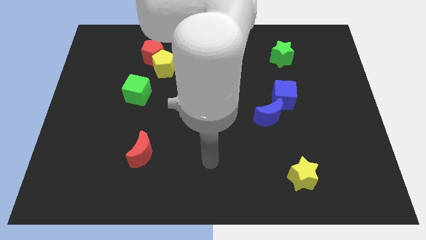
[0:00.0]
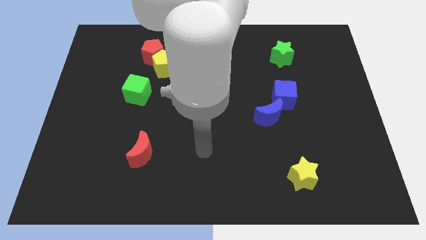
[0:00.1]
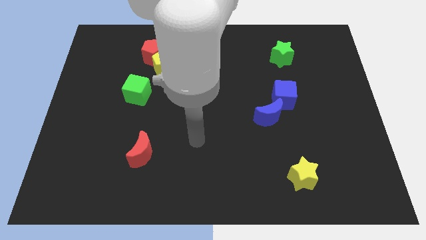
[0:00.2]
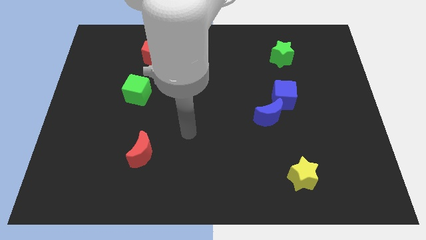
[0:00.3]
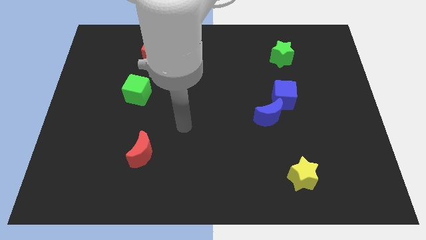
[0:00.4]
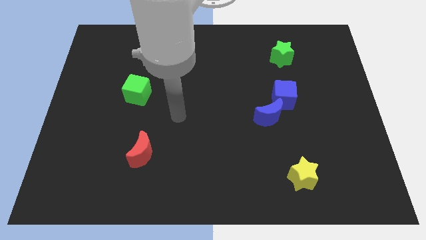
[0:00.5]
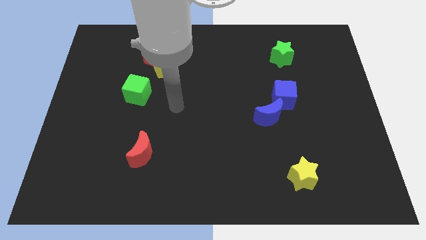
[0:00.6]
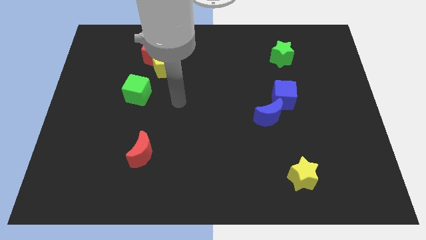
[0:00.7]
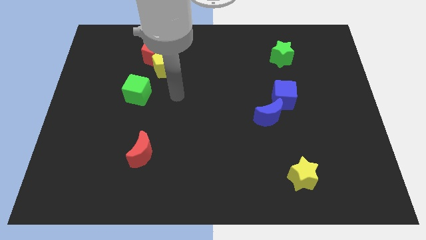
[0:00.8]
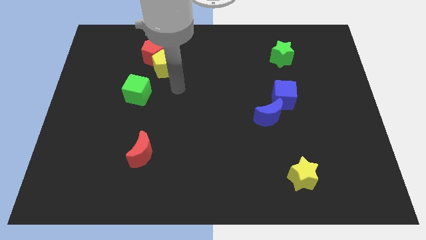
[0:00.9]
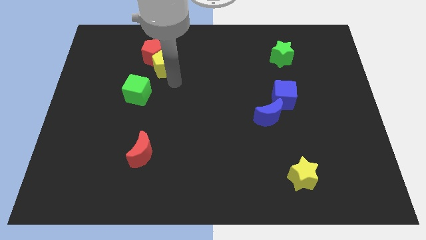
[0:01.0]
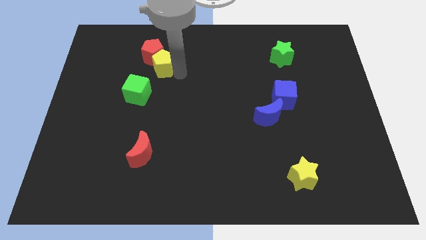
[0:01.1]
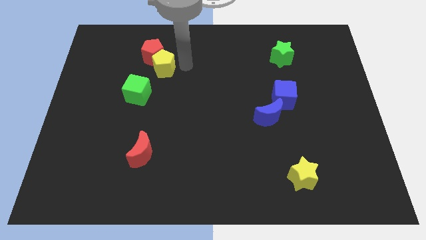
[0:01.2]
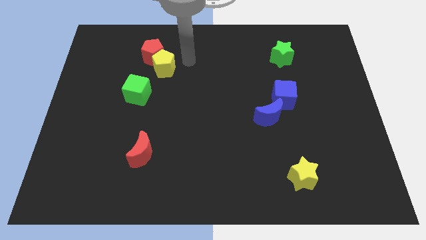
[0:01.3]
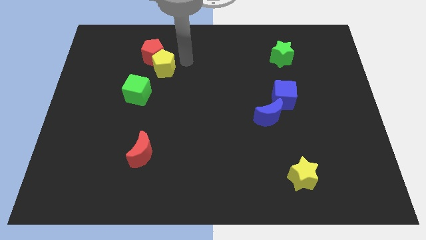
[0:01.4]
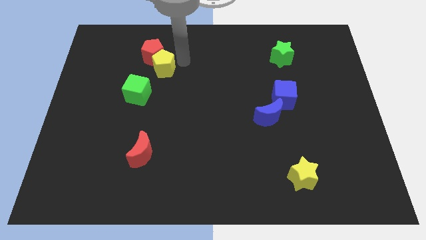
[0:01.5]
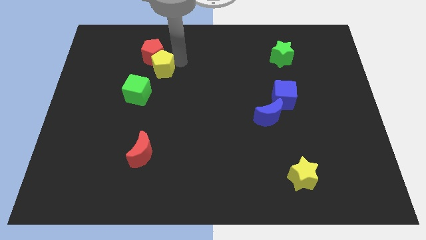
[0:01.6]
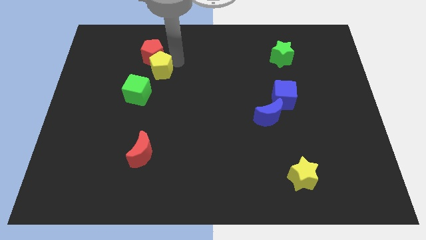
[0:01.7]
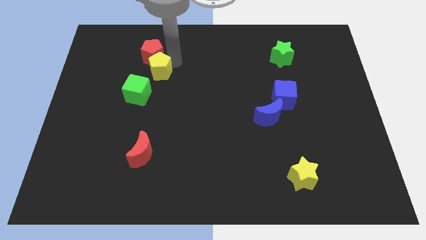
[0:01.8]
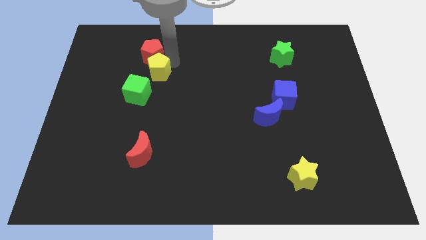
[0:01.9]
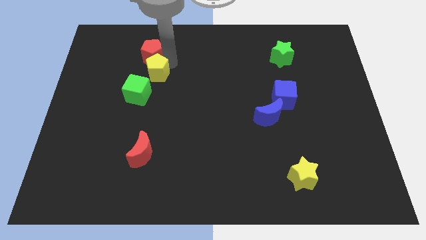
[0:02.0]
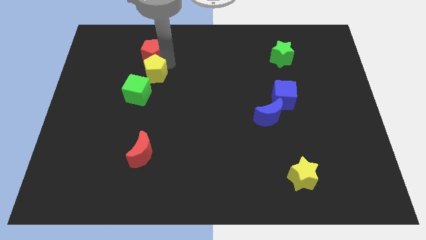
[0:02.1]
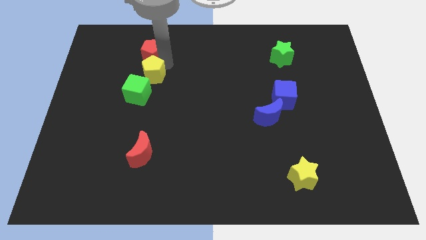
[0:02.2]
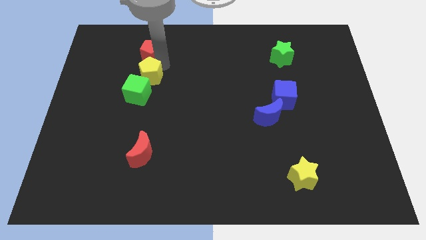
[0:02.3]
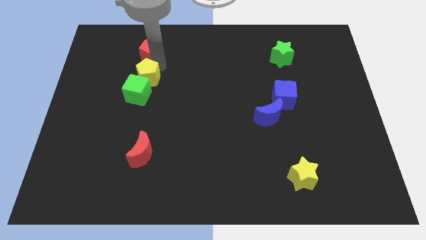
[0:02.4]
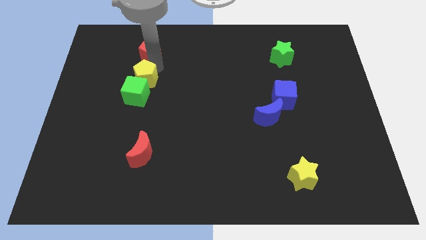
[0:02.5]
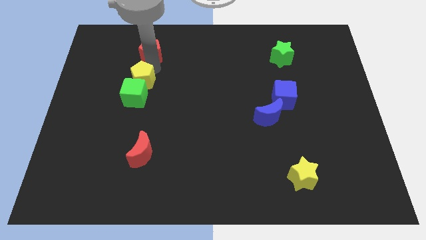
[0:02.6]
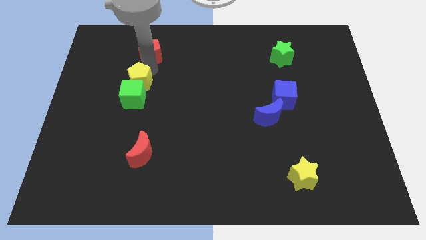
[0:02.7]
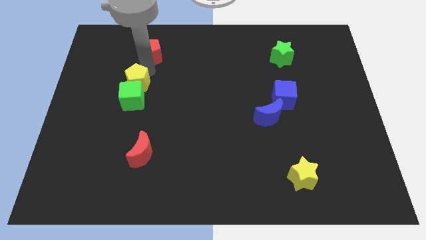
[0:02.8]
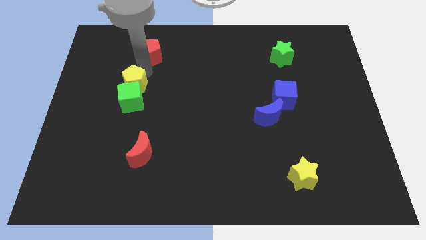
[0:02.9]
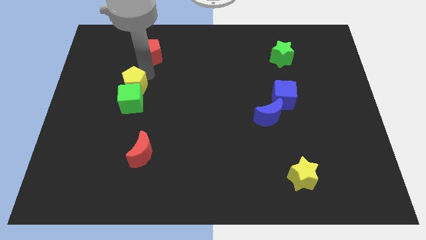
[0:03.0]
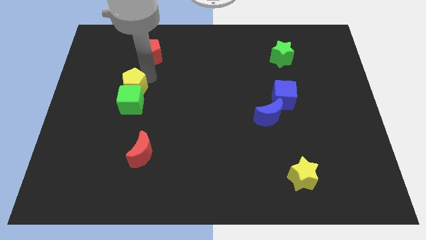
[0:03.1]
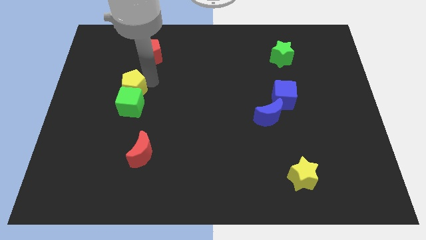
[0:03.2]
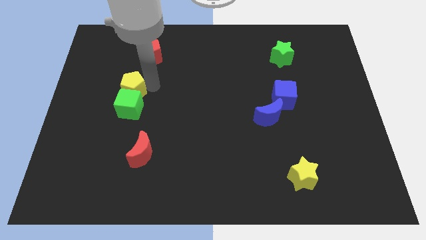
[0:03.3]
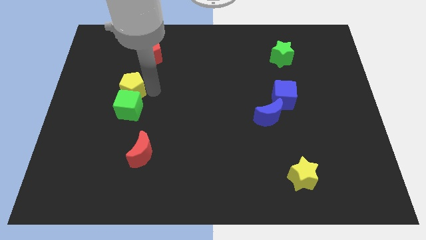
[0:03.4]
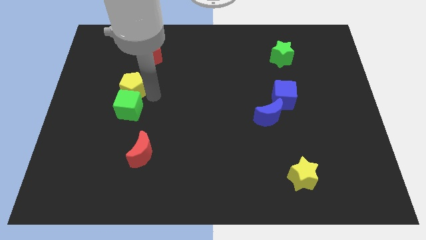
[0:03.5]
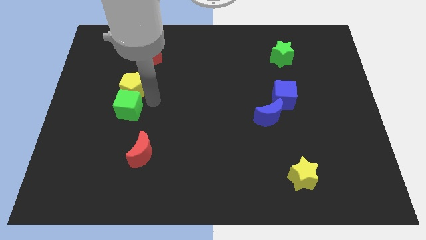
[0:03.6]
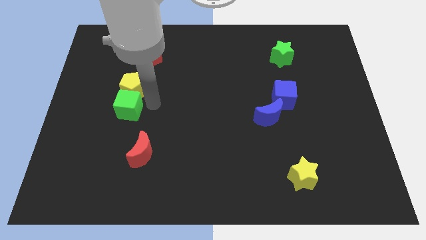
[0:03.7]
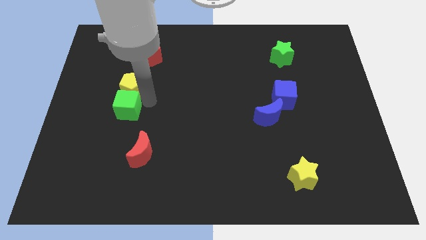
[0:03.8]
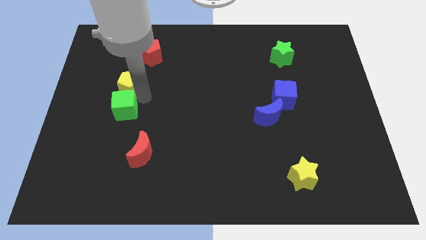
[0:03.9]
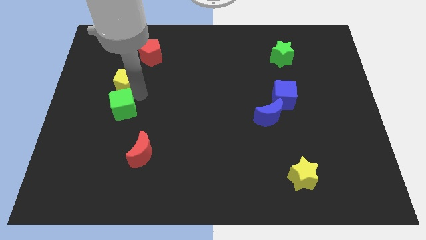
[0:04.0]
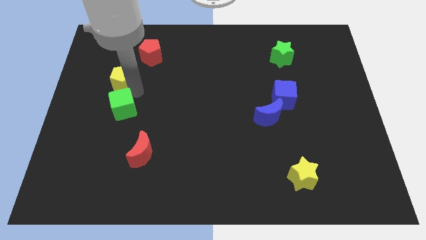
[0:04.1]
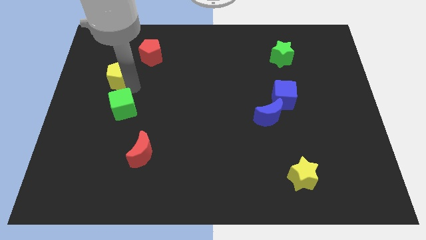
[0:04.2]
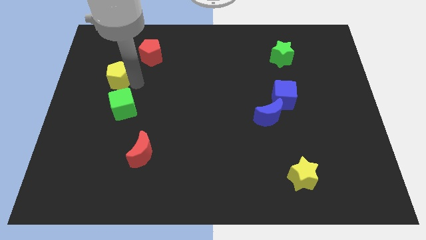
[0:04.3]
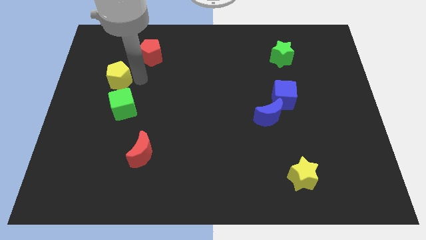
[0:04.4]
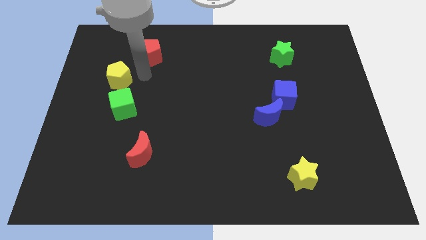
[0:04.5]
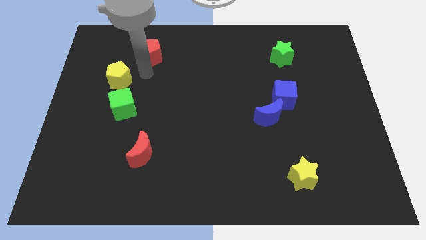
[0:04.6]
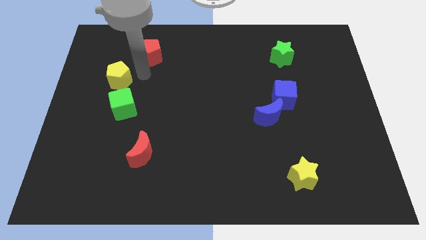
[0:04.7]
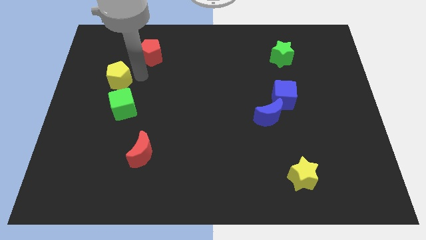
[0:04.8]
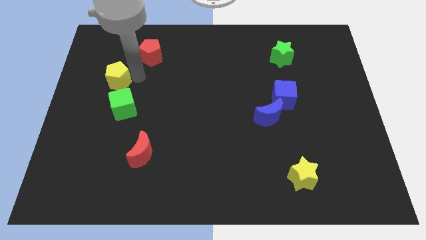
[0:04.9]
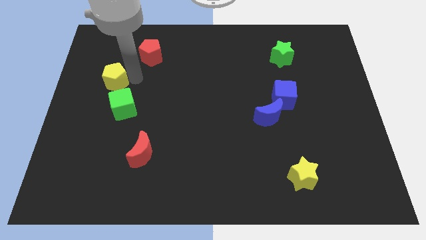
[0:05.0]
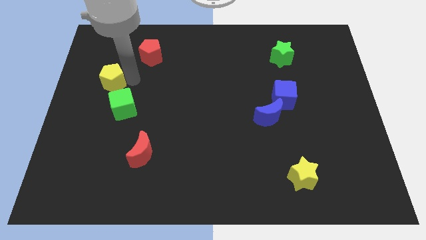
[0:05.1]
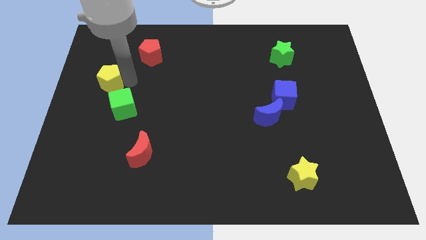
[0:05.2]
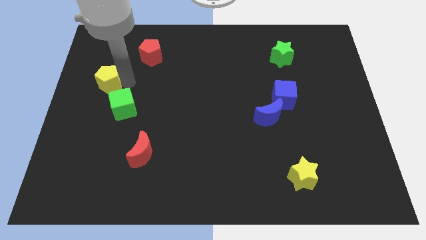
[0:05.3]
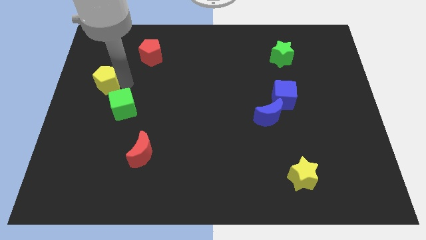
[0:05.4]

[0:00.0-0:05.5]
move the yellow pentagon to the center left

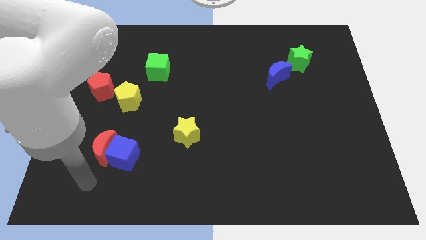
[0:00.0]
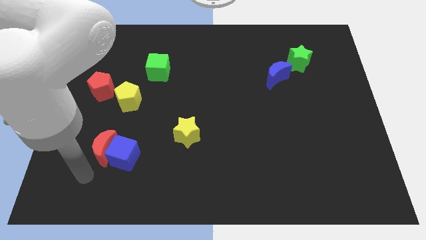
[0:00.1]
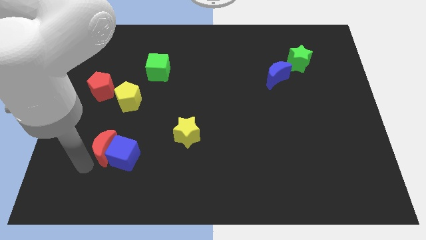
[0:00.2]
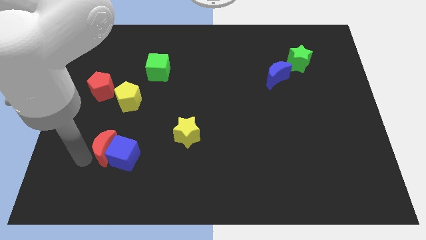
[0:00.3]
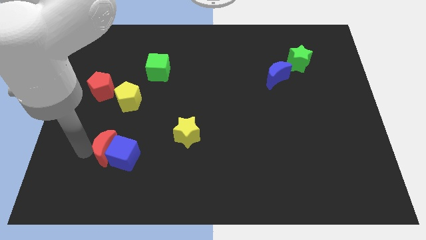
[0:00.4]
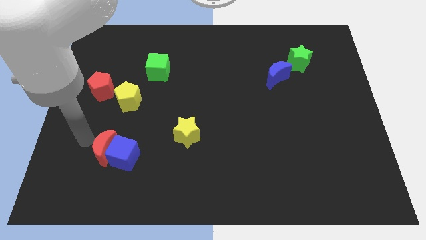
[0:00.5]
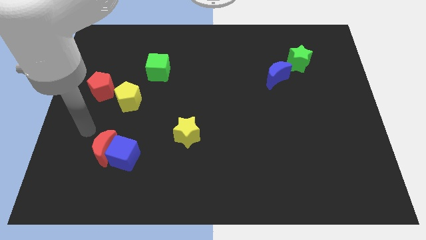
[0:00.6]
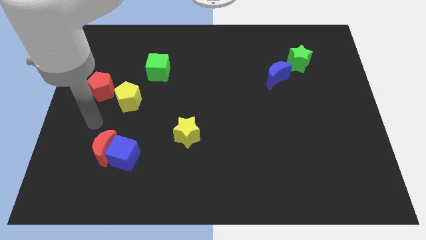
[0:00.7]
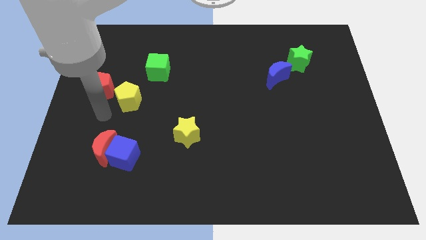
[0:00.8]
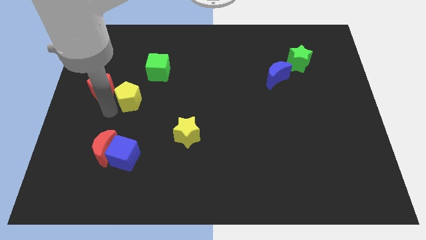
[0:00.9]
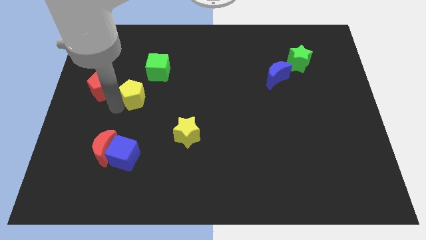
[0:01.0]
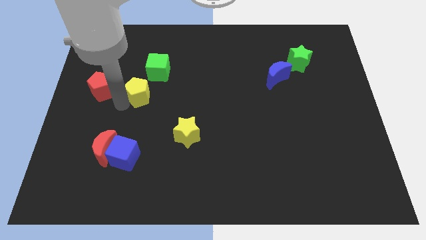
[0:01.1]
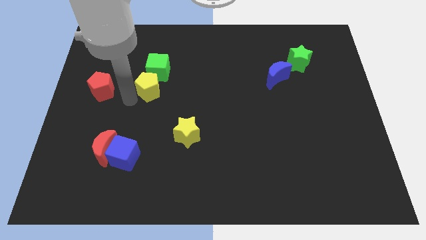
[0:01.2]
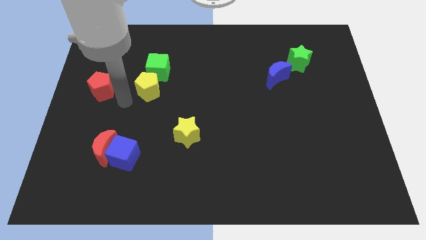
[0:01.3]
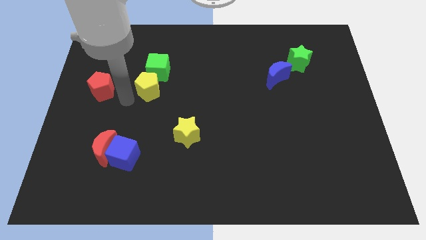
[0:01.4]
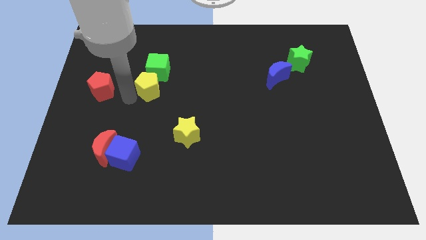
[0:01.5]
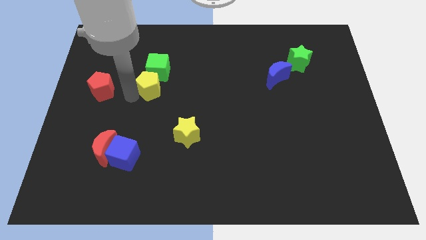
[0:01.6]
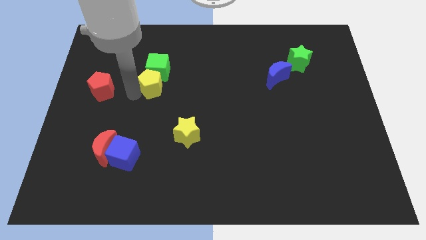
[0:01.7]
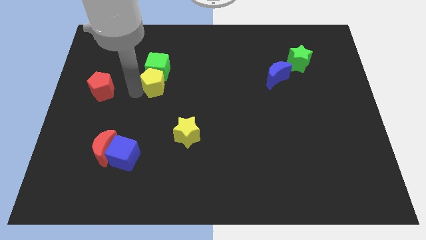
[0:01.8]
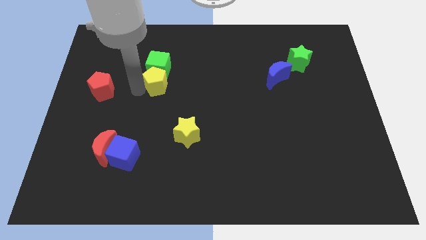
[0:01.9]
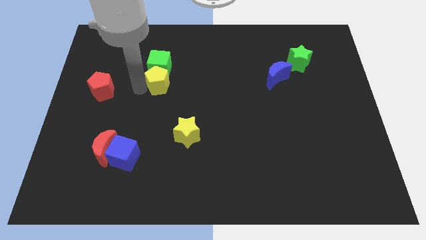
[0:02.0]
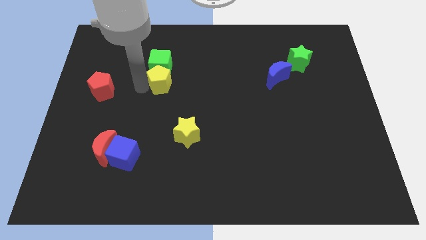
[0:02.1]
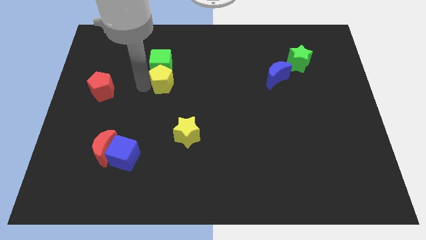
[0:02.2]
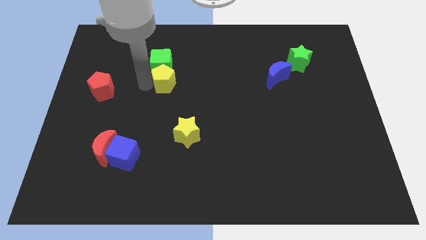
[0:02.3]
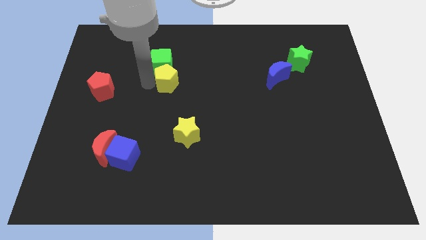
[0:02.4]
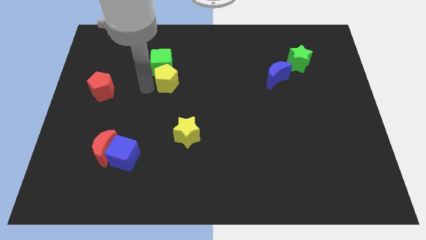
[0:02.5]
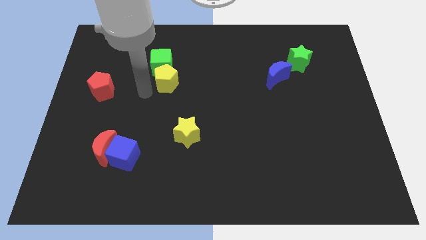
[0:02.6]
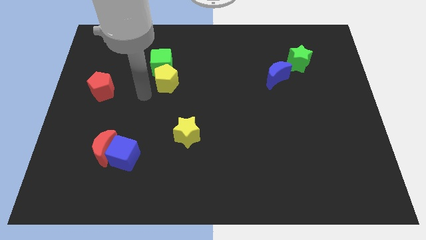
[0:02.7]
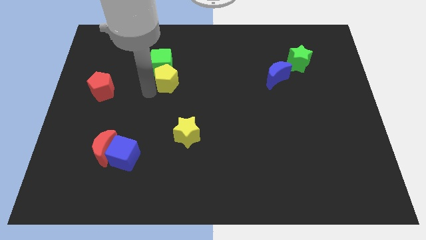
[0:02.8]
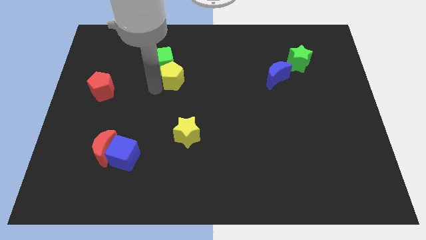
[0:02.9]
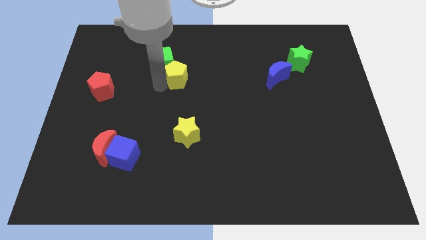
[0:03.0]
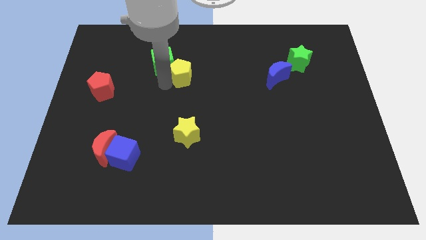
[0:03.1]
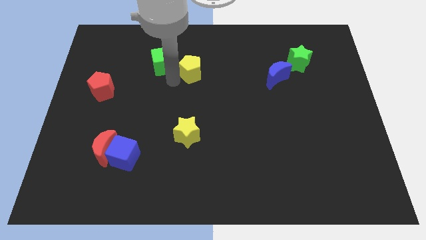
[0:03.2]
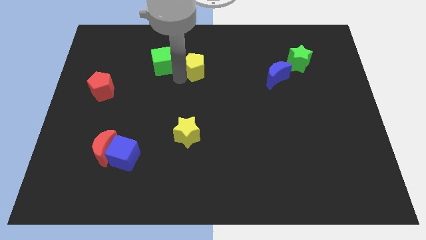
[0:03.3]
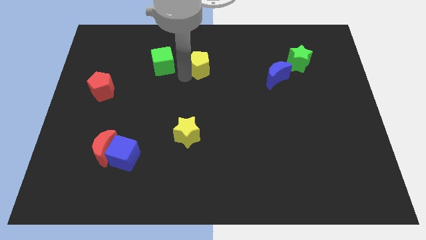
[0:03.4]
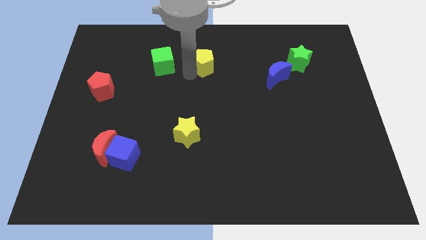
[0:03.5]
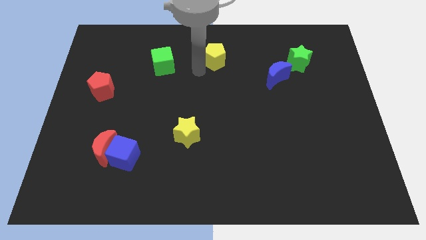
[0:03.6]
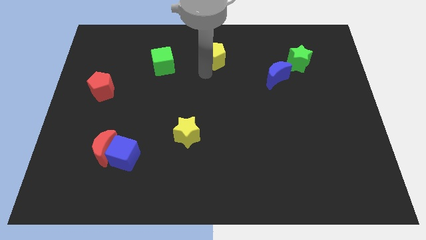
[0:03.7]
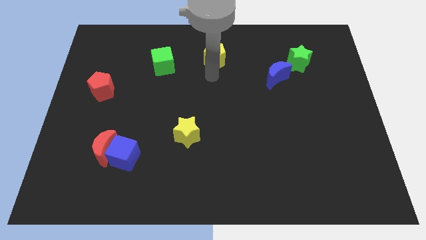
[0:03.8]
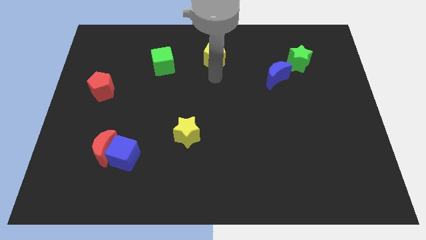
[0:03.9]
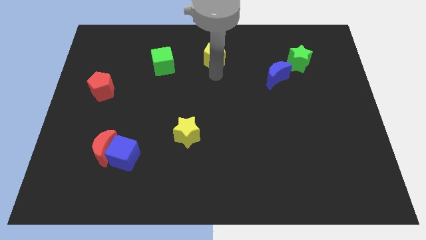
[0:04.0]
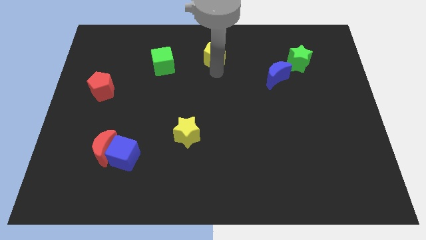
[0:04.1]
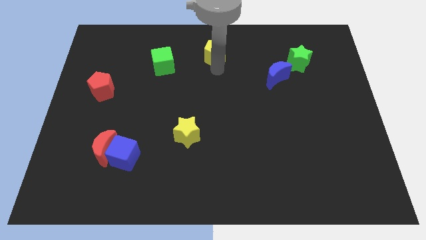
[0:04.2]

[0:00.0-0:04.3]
move the yellow pentagon to the towards your base
